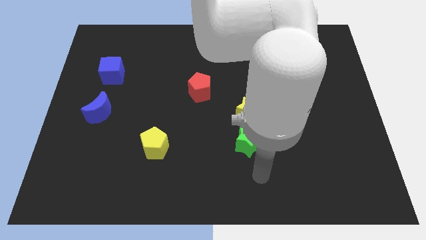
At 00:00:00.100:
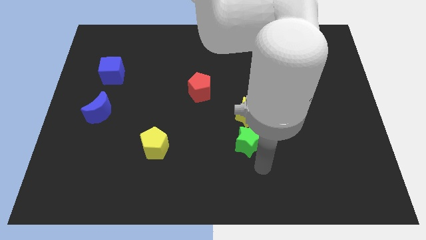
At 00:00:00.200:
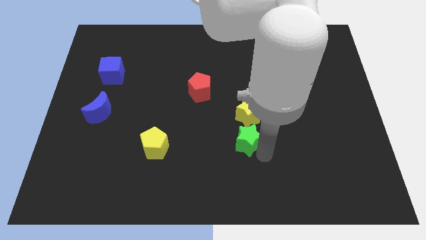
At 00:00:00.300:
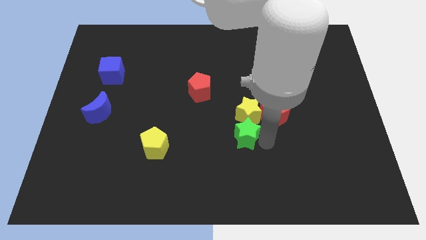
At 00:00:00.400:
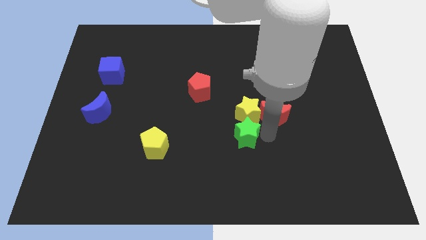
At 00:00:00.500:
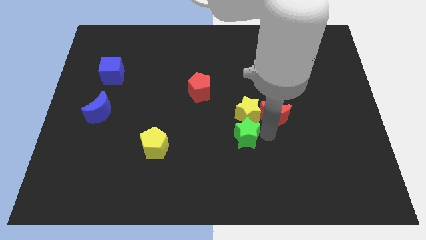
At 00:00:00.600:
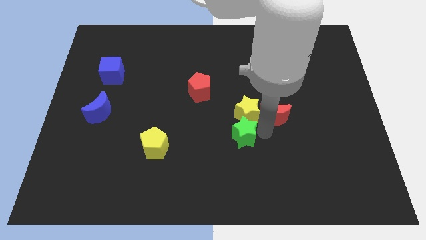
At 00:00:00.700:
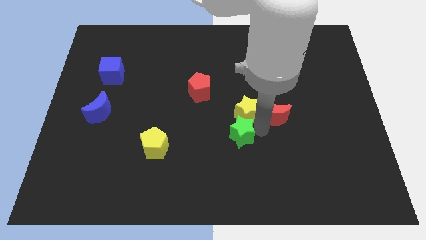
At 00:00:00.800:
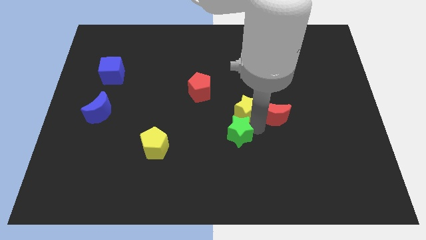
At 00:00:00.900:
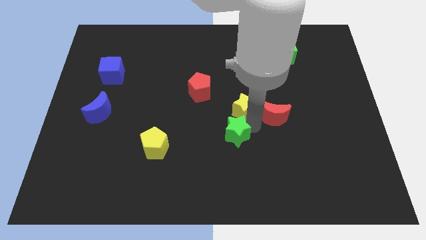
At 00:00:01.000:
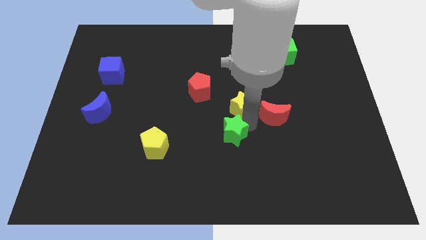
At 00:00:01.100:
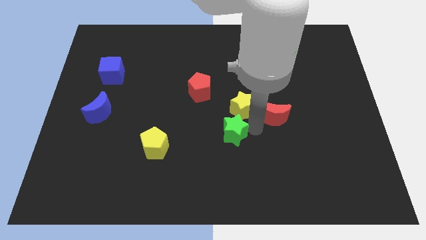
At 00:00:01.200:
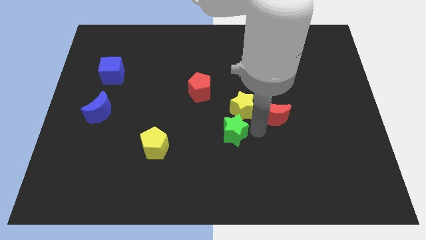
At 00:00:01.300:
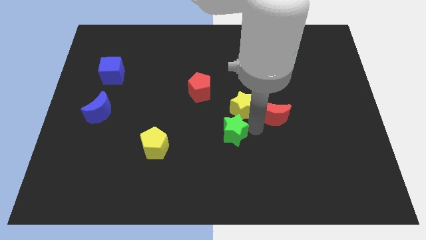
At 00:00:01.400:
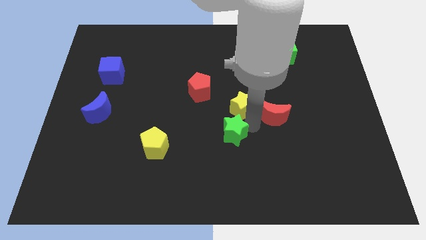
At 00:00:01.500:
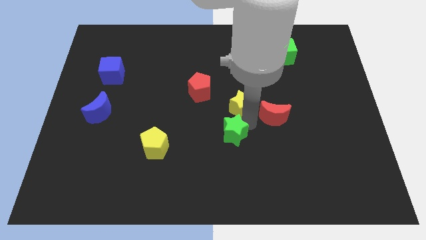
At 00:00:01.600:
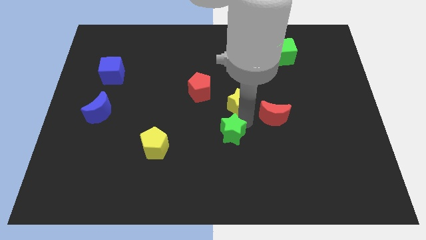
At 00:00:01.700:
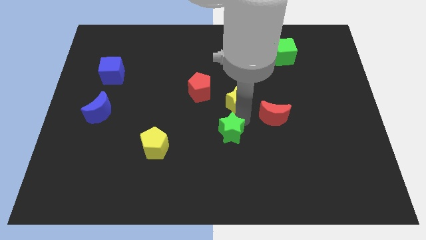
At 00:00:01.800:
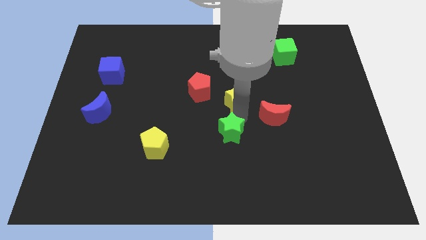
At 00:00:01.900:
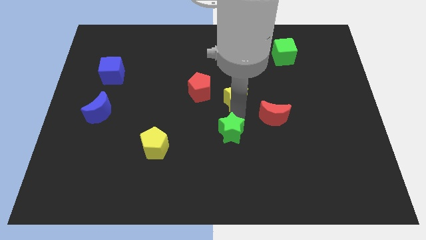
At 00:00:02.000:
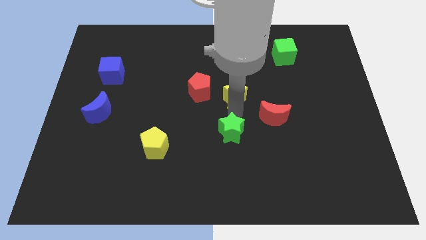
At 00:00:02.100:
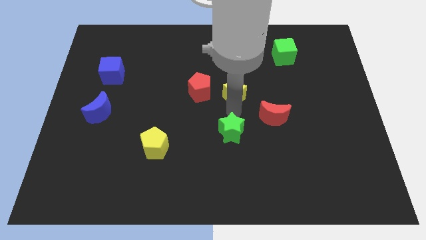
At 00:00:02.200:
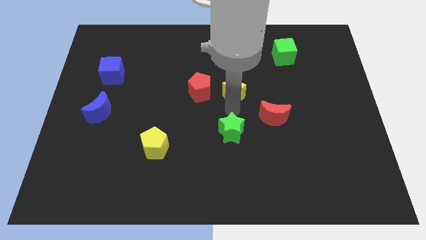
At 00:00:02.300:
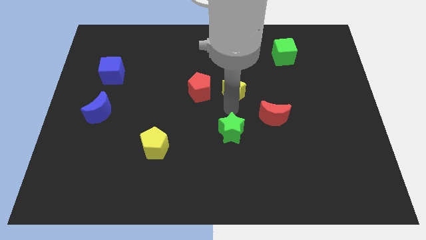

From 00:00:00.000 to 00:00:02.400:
separate the yellow star from the red moon and green star

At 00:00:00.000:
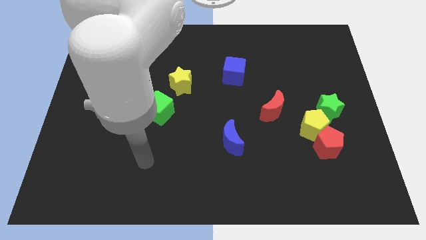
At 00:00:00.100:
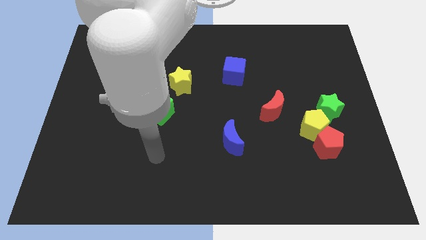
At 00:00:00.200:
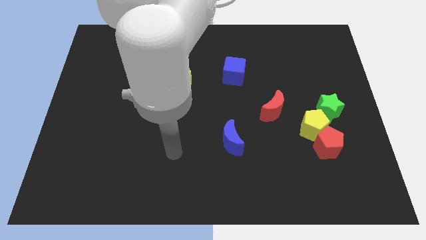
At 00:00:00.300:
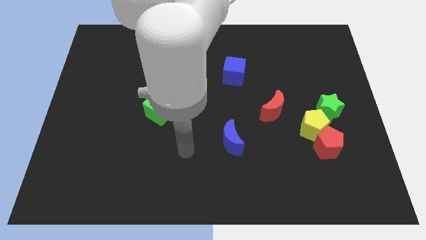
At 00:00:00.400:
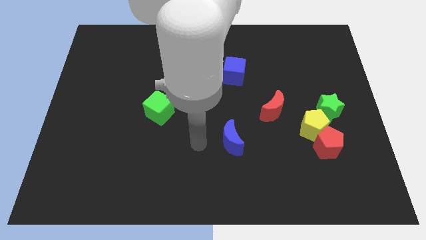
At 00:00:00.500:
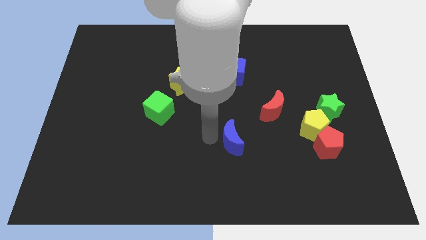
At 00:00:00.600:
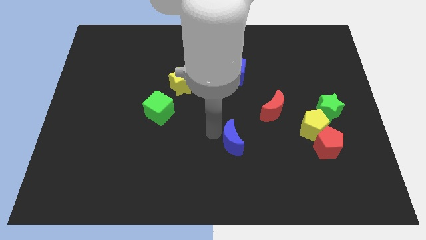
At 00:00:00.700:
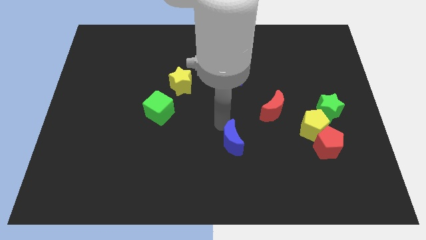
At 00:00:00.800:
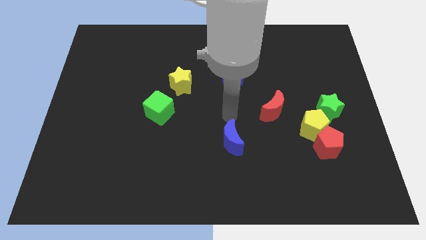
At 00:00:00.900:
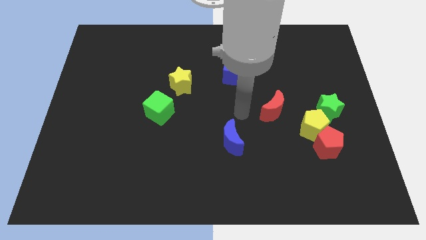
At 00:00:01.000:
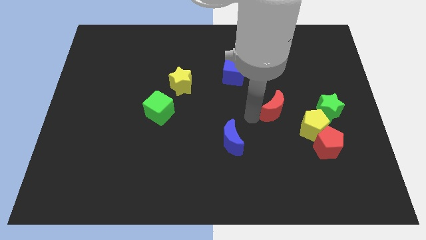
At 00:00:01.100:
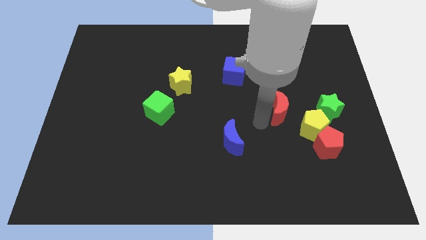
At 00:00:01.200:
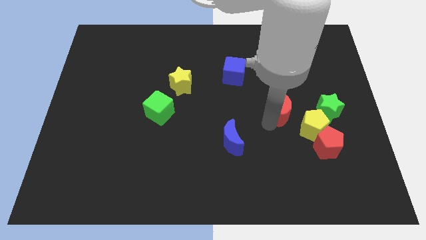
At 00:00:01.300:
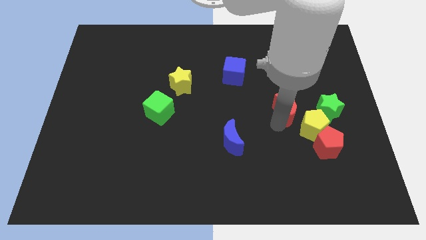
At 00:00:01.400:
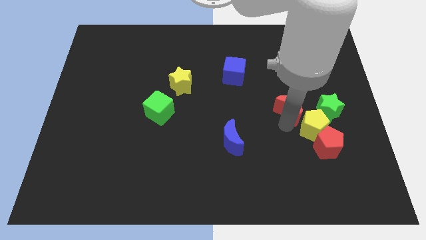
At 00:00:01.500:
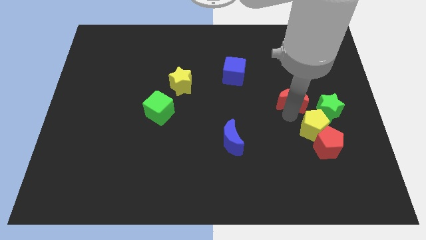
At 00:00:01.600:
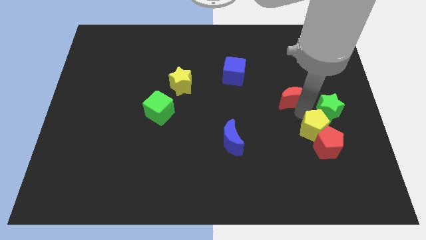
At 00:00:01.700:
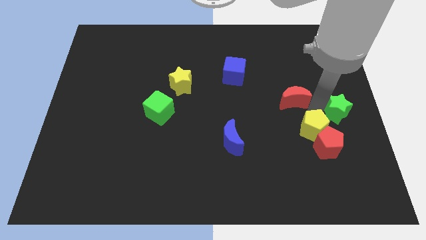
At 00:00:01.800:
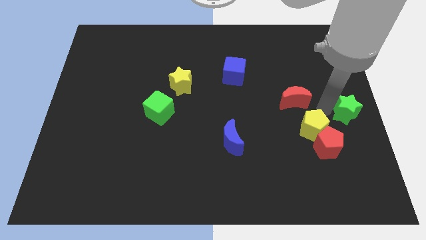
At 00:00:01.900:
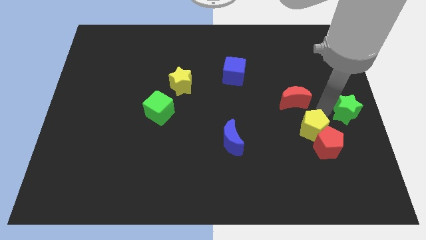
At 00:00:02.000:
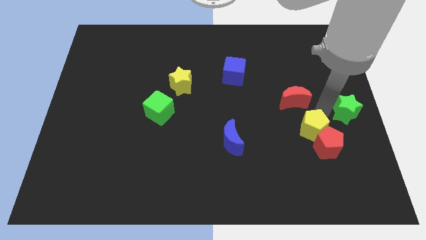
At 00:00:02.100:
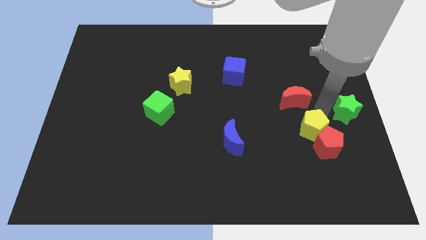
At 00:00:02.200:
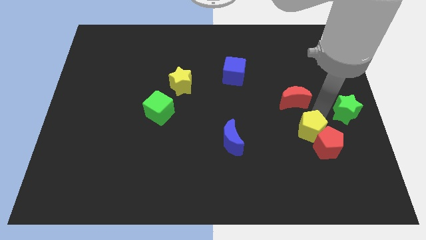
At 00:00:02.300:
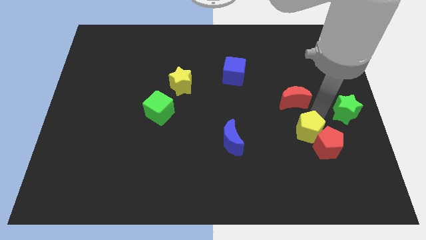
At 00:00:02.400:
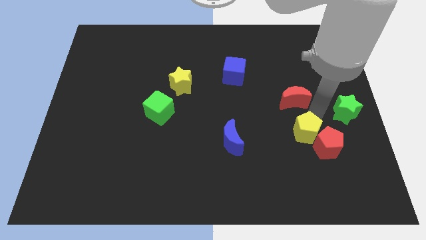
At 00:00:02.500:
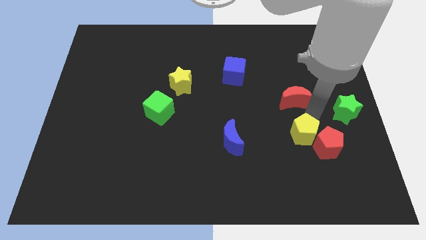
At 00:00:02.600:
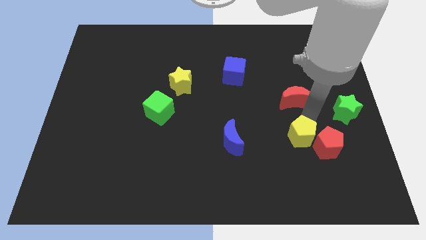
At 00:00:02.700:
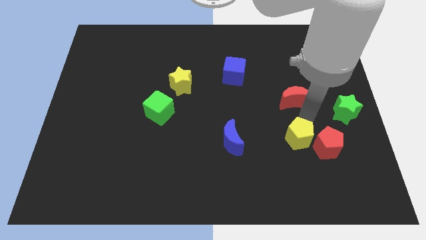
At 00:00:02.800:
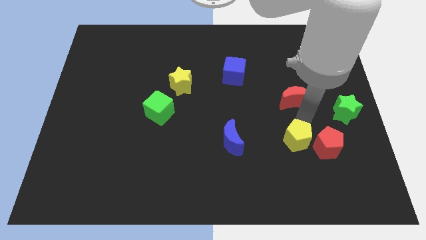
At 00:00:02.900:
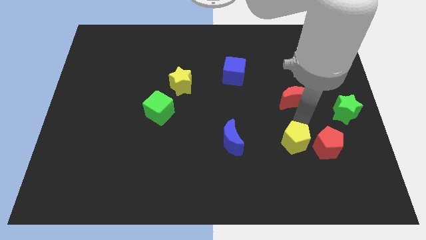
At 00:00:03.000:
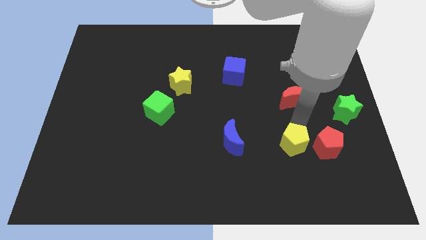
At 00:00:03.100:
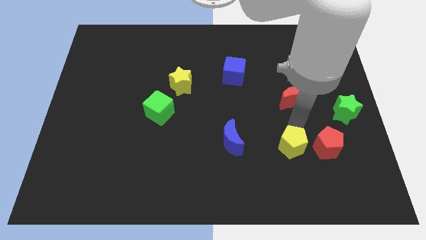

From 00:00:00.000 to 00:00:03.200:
pull the yellow pentagon apart from the group

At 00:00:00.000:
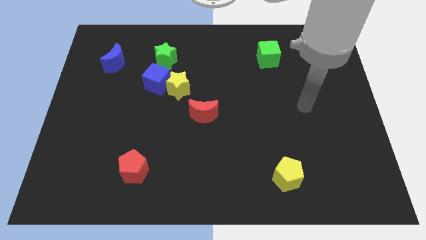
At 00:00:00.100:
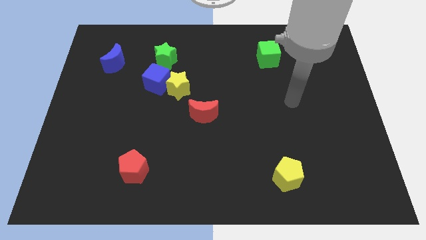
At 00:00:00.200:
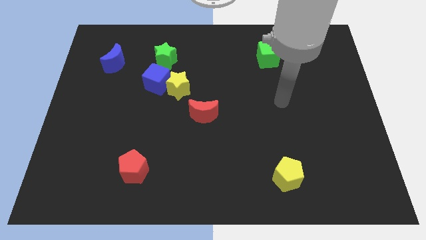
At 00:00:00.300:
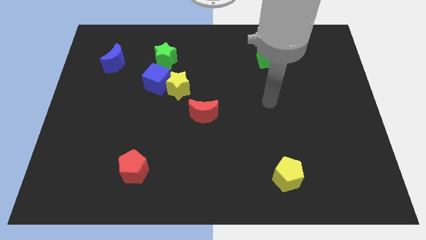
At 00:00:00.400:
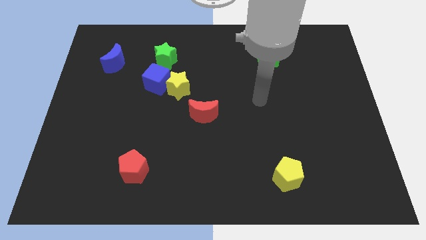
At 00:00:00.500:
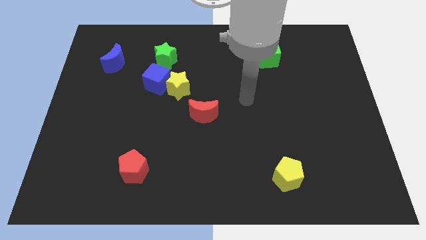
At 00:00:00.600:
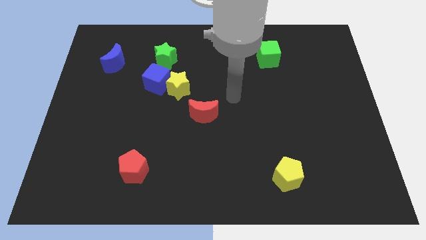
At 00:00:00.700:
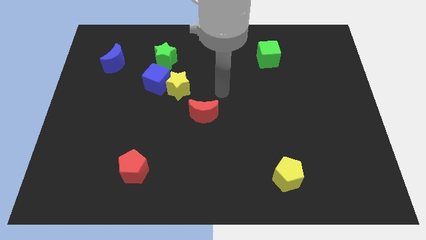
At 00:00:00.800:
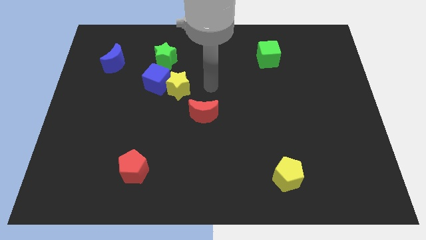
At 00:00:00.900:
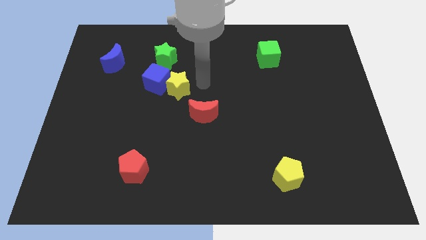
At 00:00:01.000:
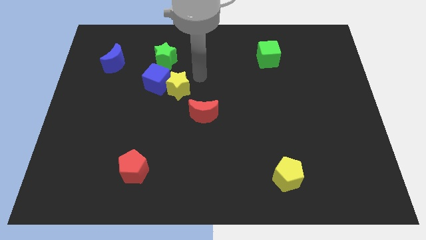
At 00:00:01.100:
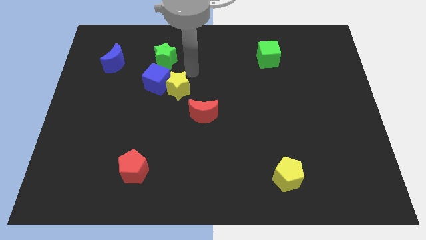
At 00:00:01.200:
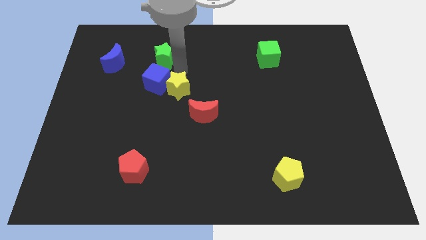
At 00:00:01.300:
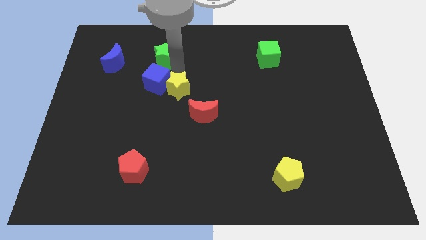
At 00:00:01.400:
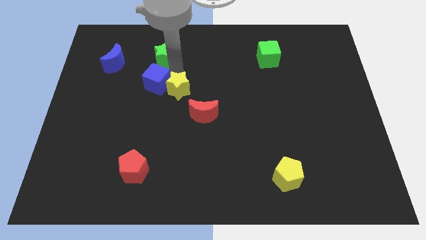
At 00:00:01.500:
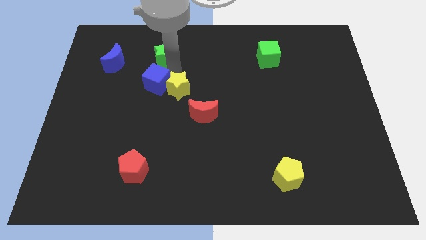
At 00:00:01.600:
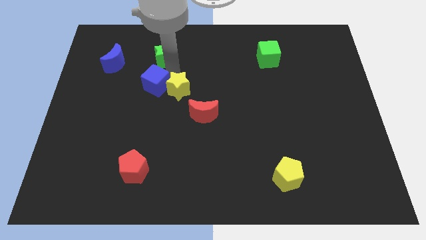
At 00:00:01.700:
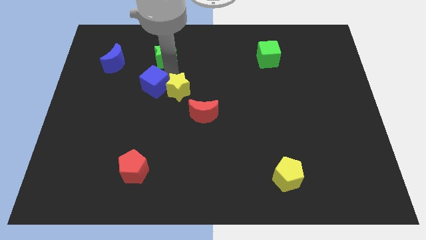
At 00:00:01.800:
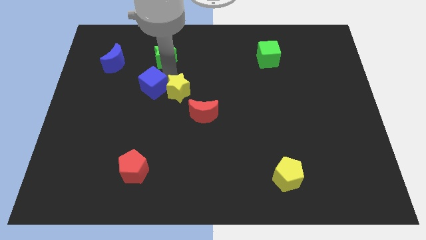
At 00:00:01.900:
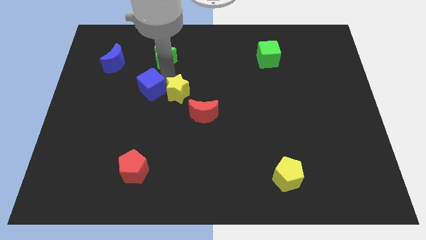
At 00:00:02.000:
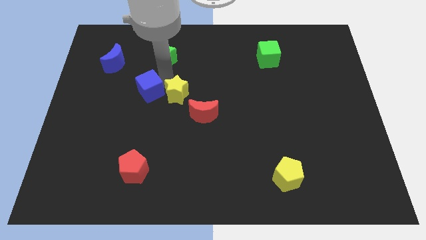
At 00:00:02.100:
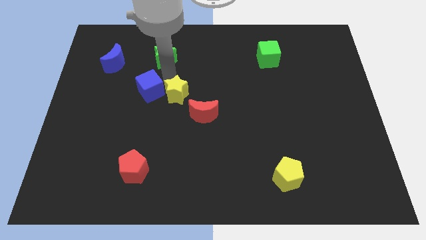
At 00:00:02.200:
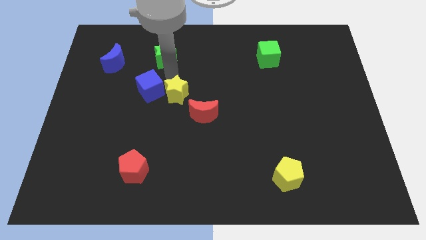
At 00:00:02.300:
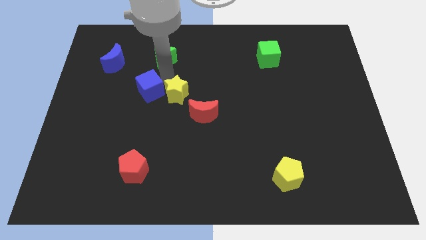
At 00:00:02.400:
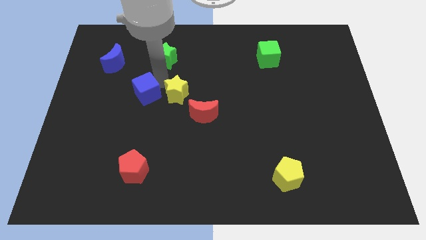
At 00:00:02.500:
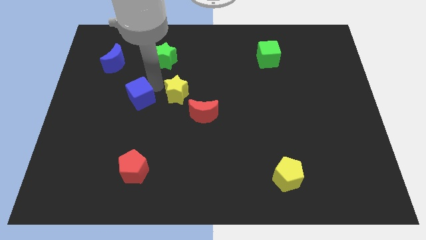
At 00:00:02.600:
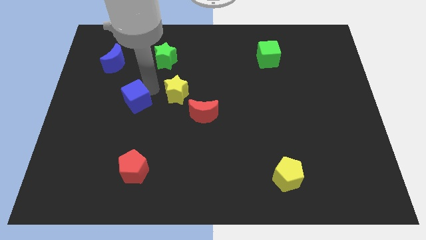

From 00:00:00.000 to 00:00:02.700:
move the blue cube away from the yellow star and green star

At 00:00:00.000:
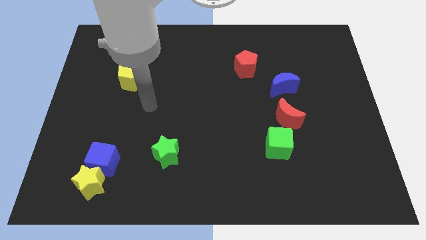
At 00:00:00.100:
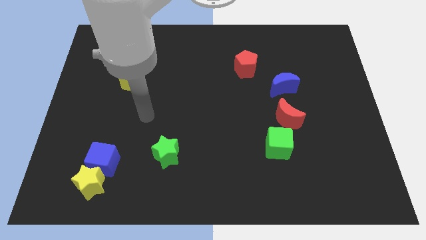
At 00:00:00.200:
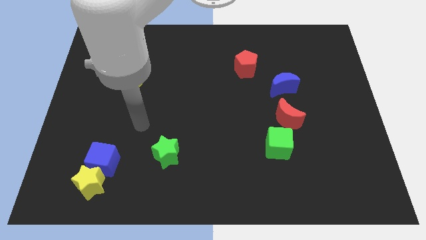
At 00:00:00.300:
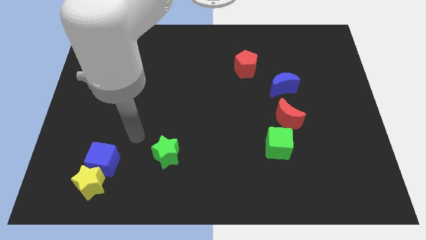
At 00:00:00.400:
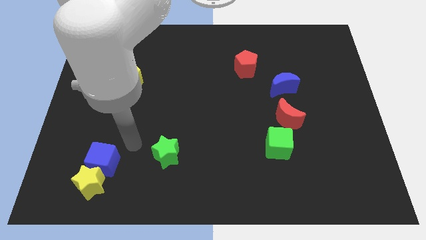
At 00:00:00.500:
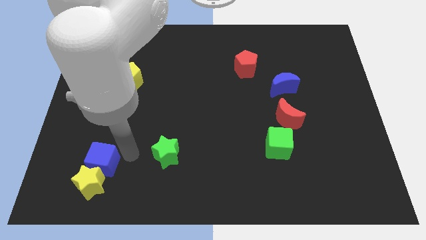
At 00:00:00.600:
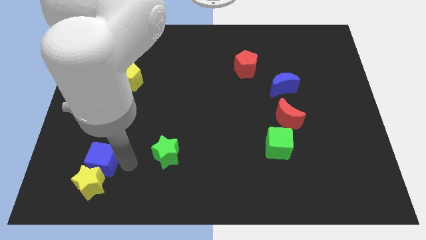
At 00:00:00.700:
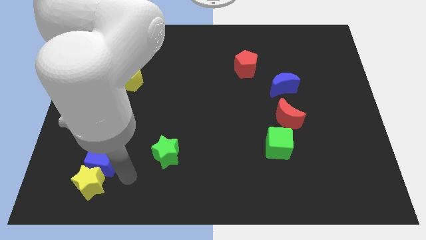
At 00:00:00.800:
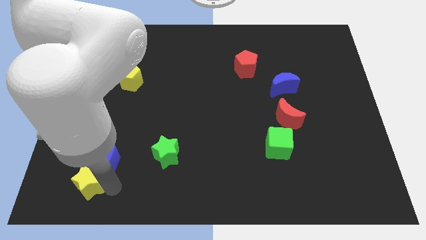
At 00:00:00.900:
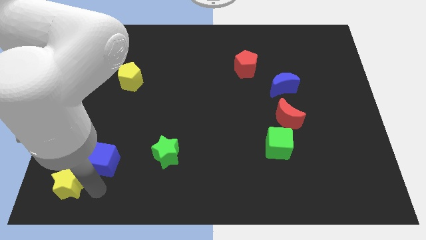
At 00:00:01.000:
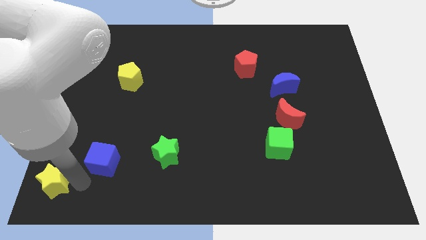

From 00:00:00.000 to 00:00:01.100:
move the blue cube away from the yellow star
